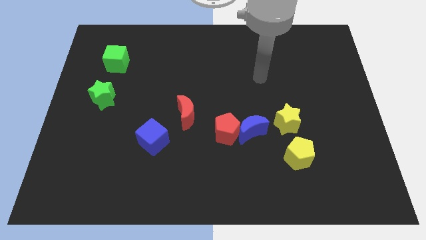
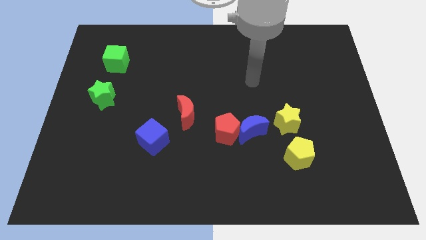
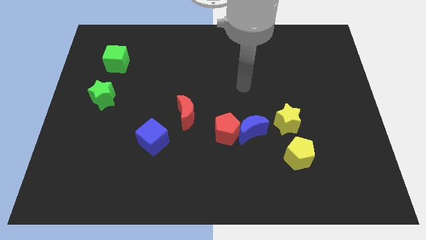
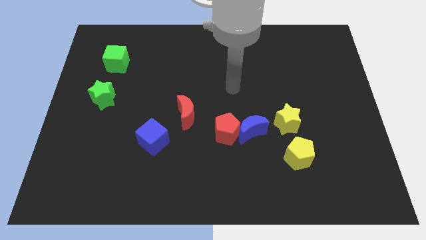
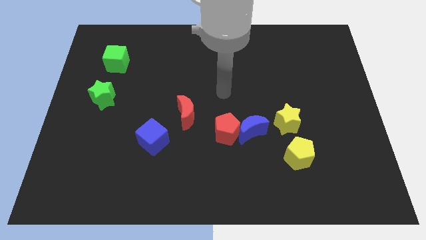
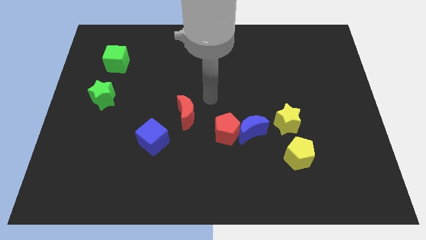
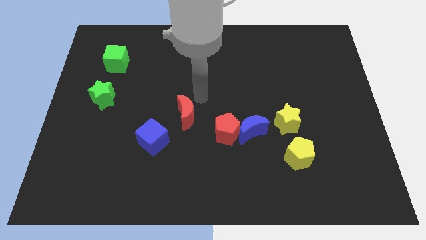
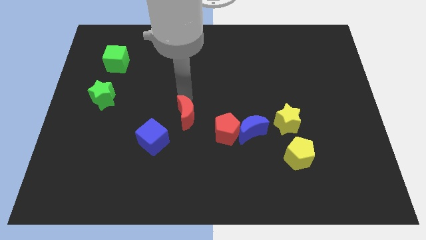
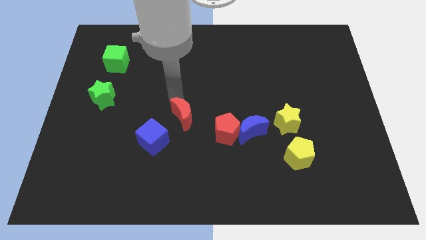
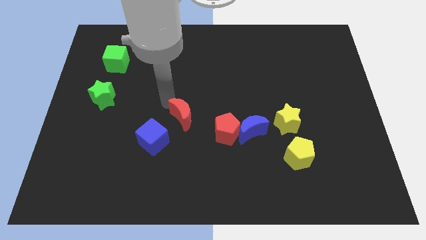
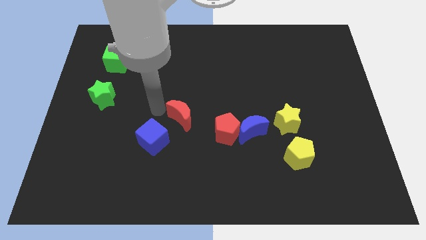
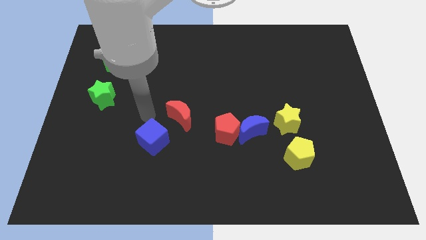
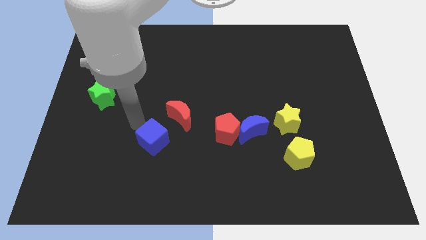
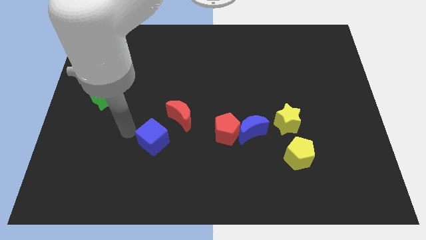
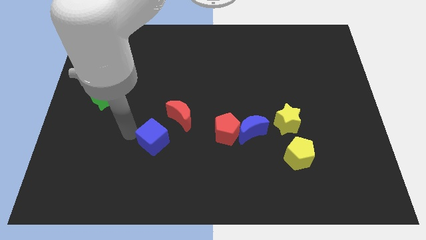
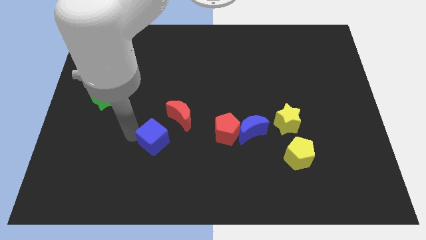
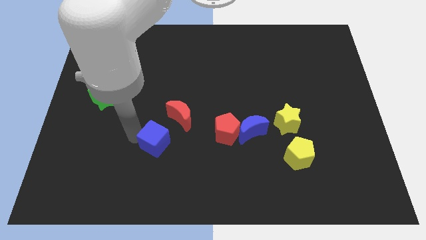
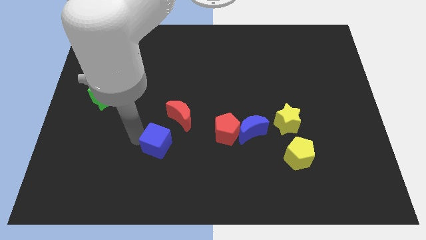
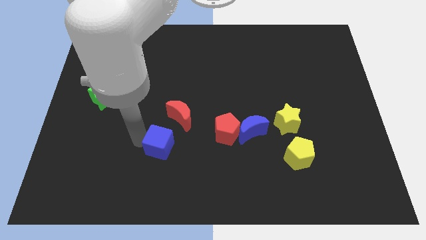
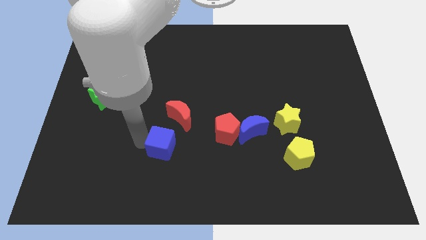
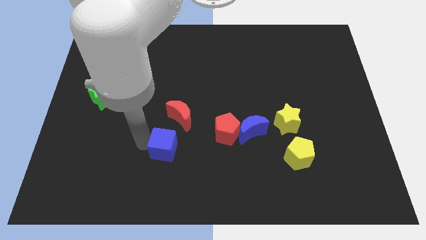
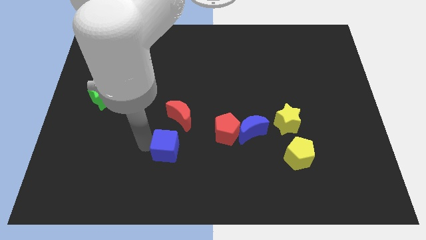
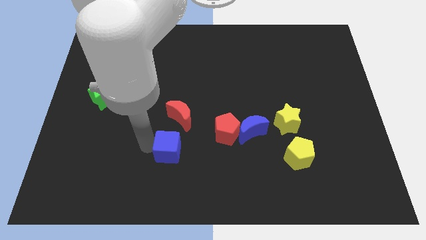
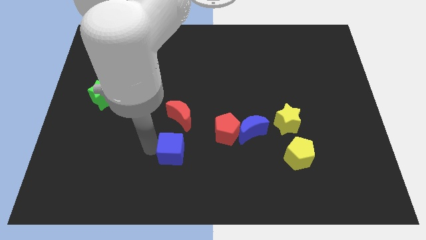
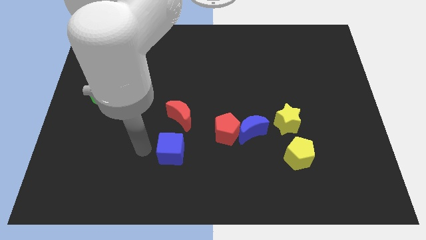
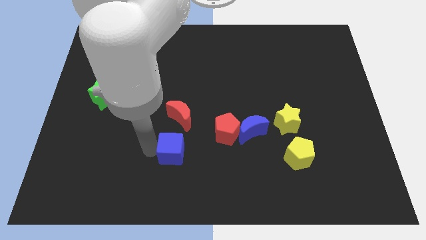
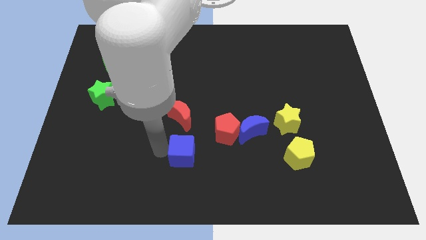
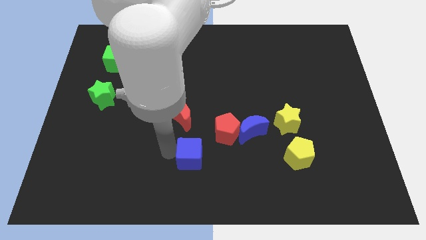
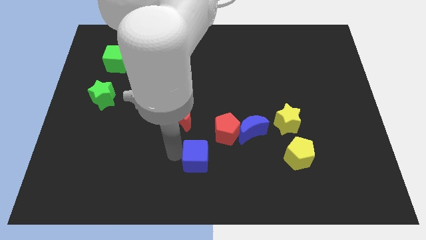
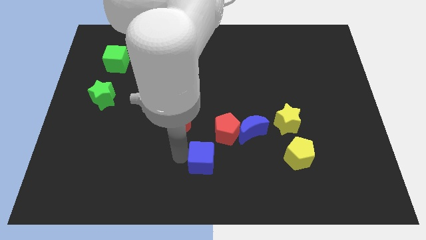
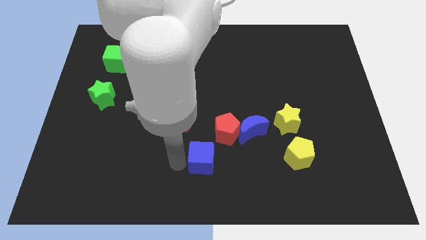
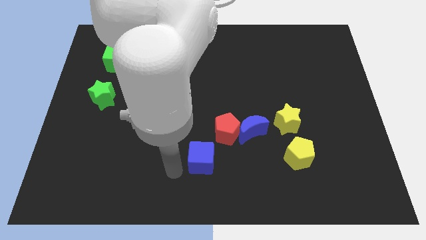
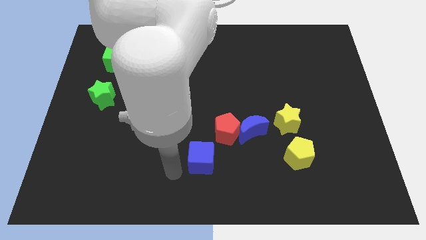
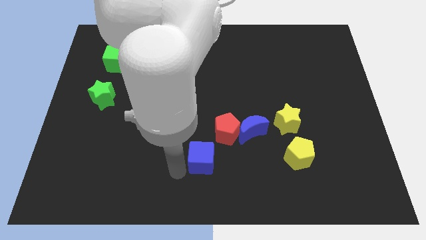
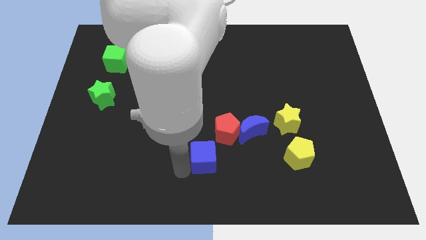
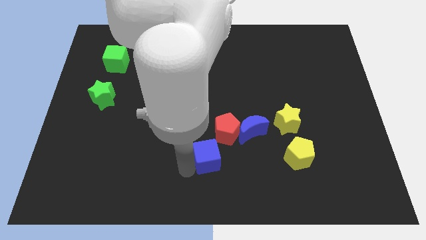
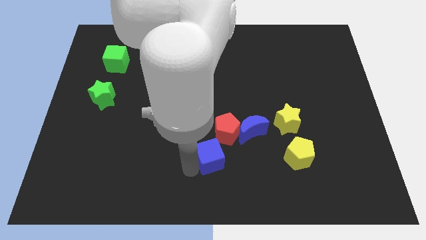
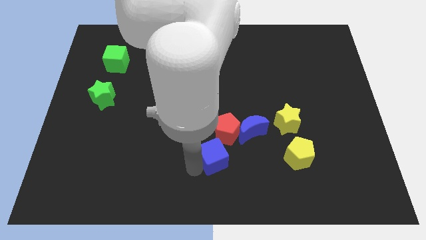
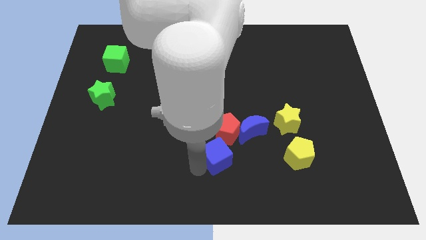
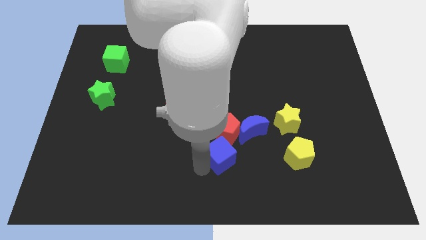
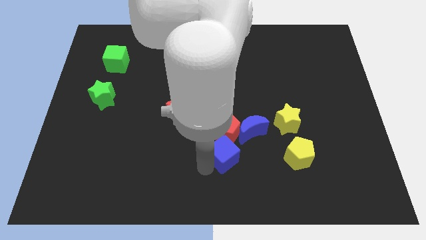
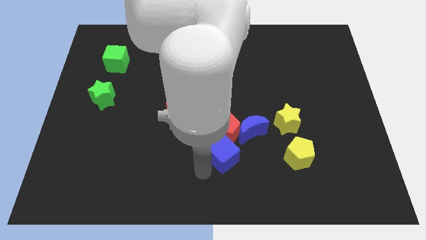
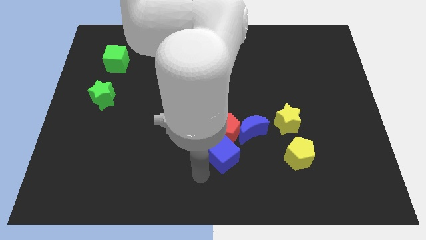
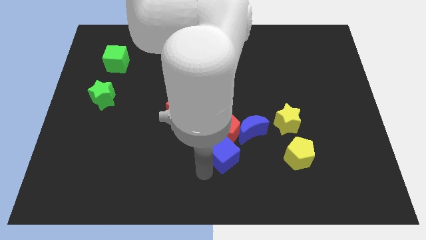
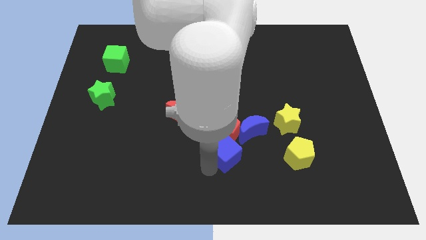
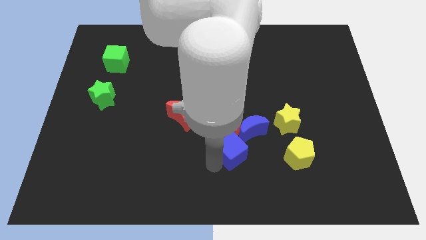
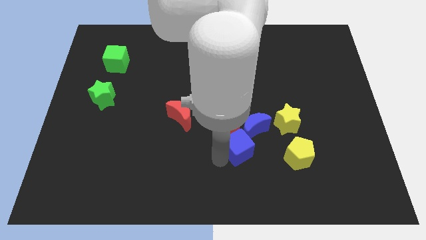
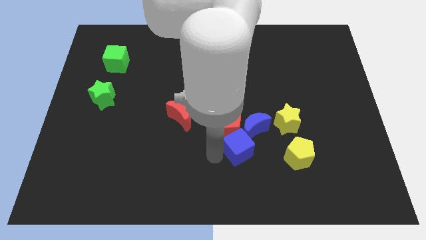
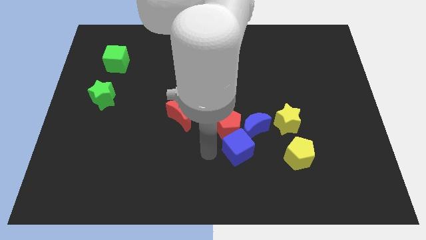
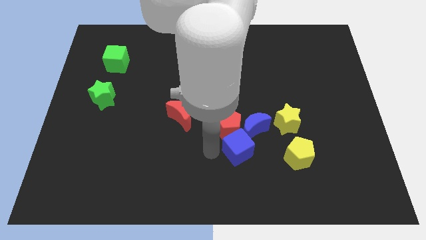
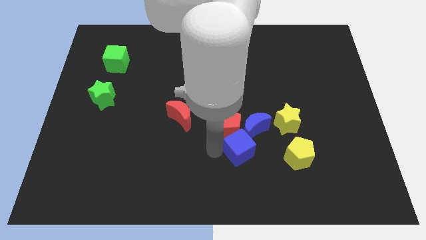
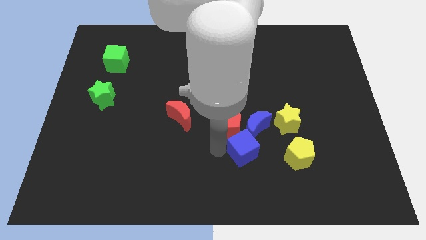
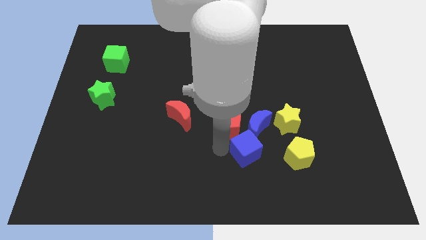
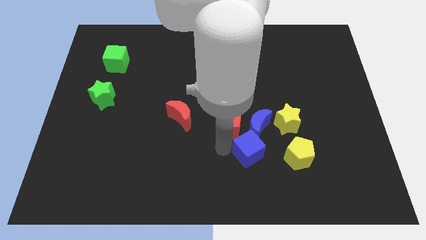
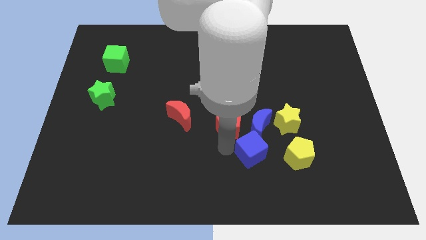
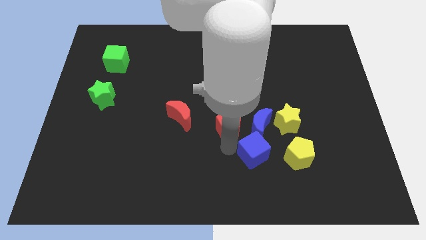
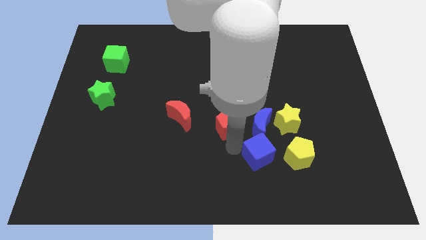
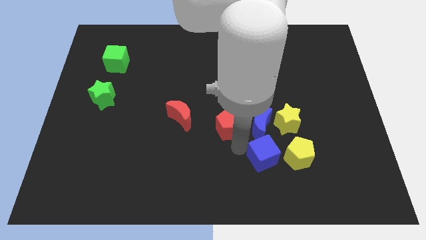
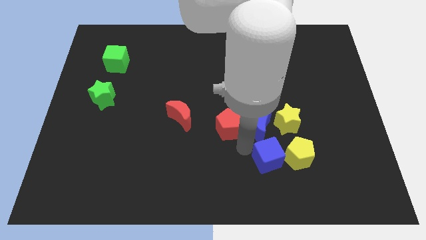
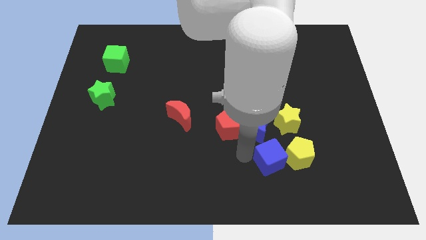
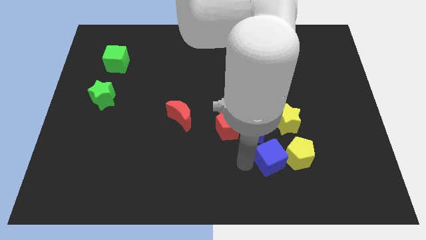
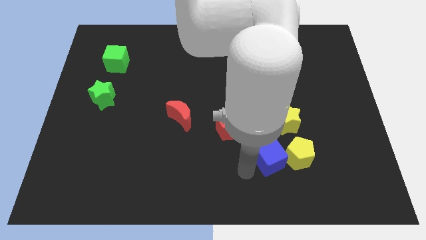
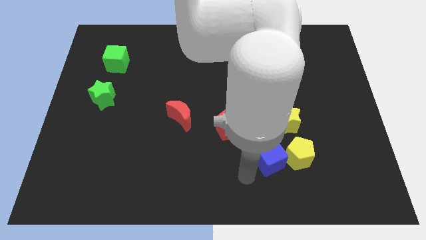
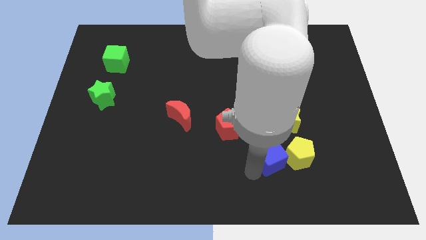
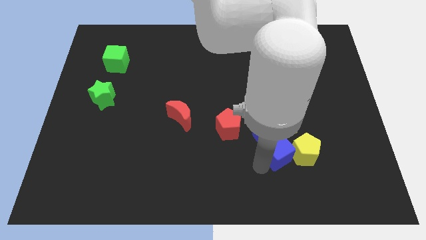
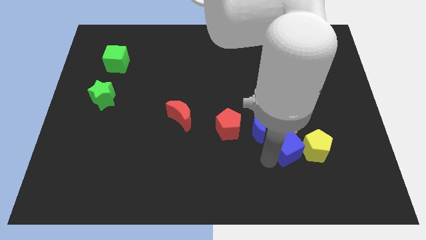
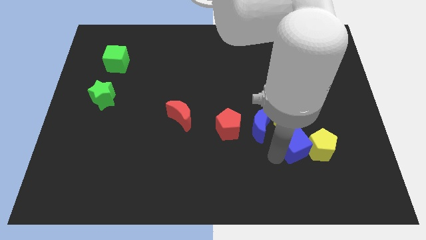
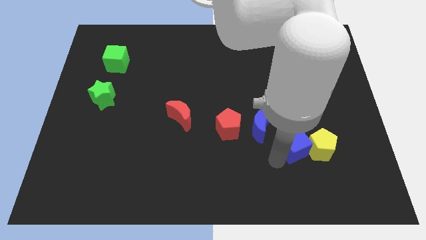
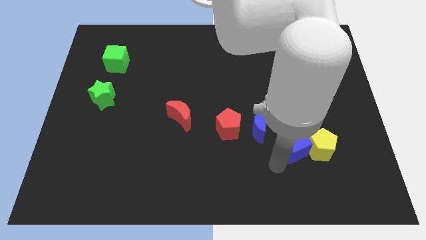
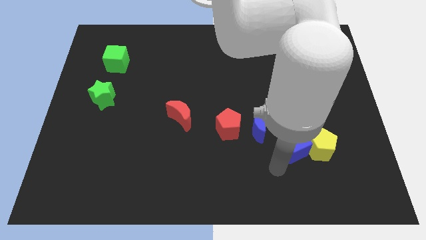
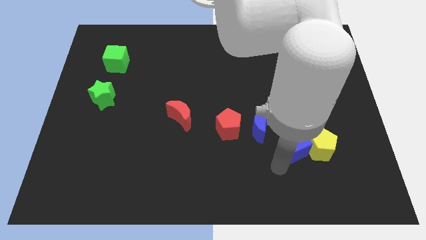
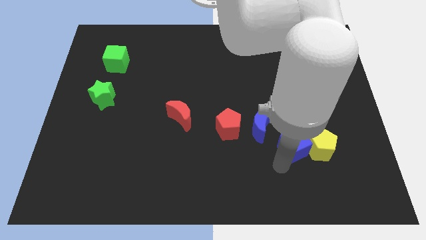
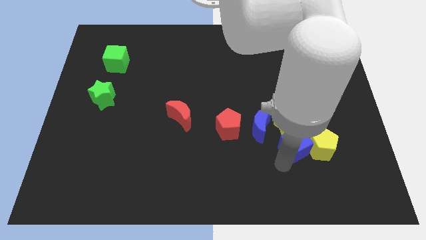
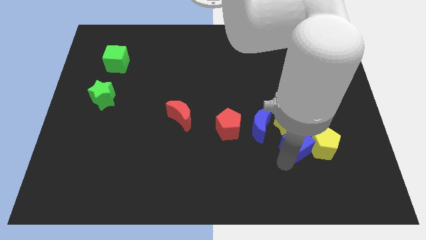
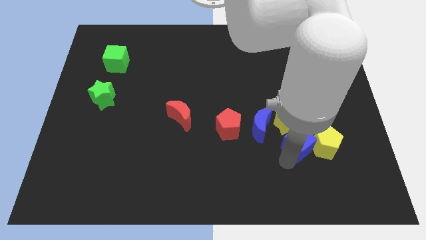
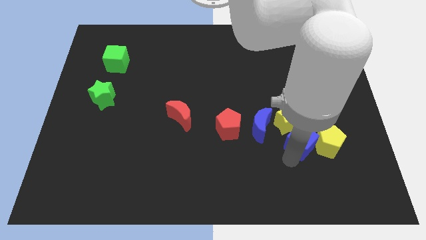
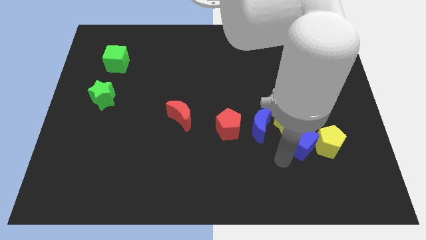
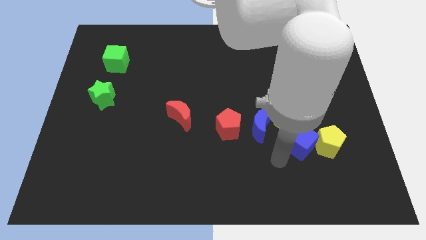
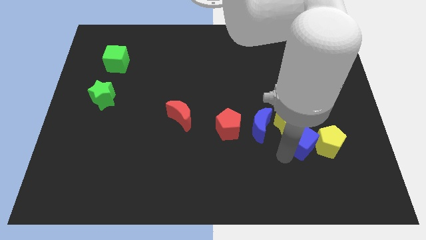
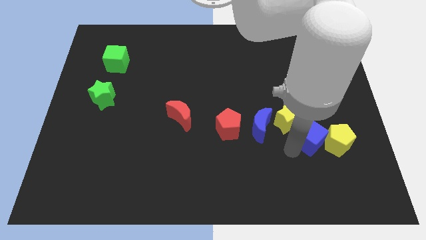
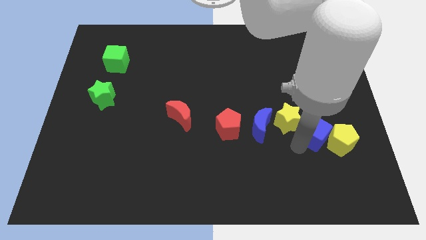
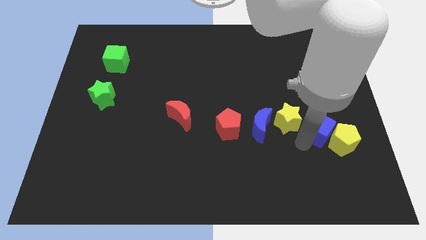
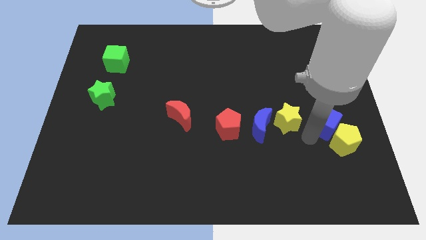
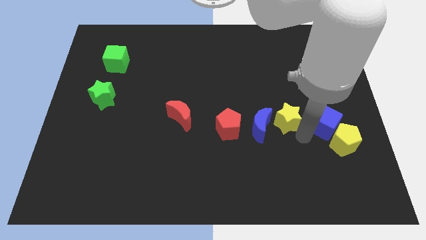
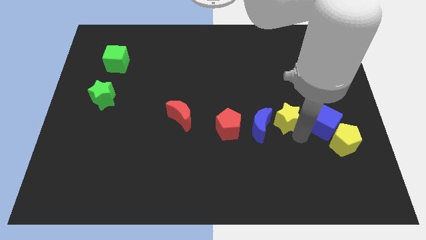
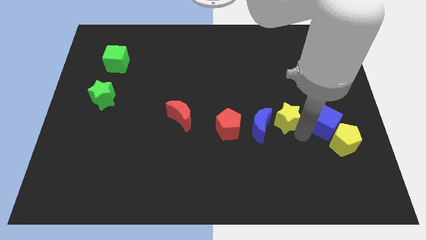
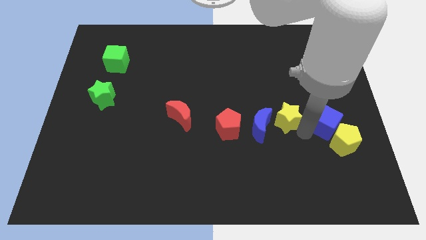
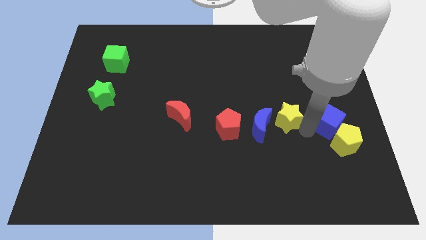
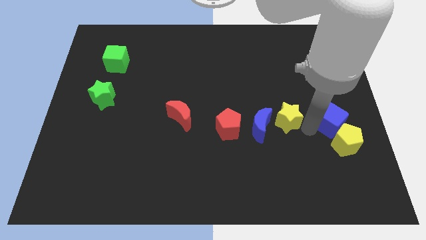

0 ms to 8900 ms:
put the blue cube to the center right
